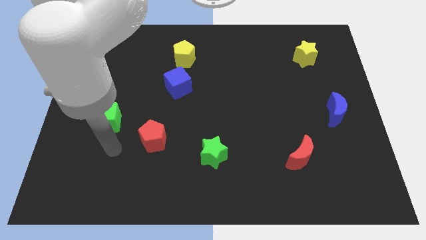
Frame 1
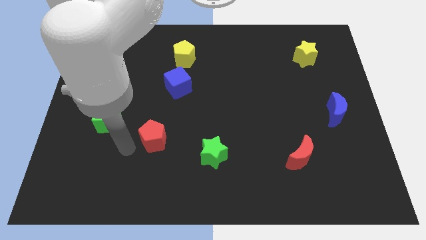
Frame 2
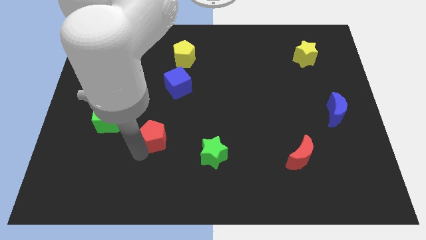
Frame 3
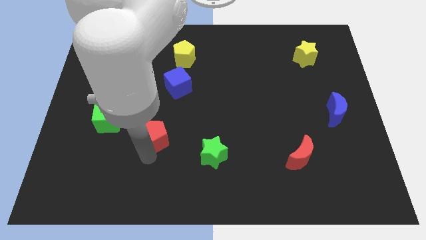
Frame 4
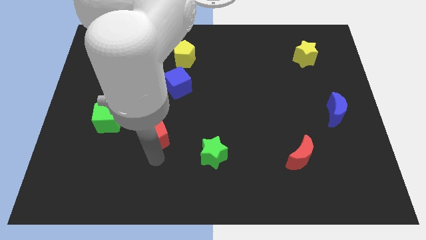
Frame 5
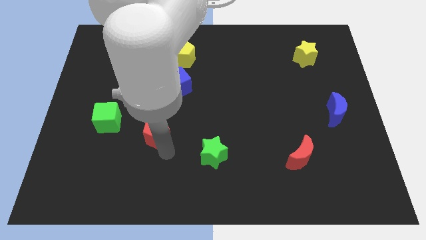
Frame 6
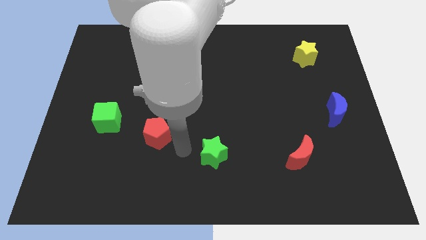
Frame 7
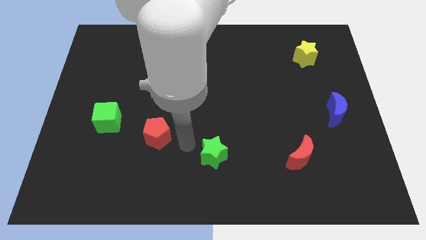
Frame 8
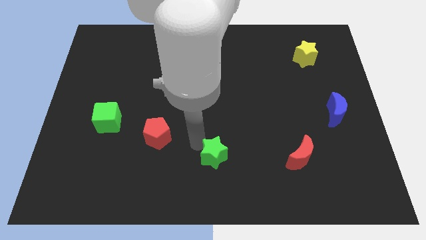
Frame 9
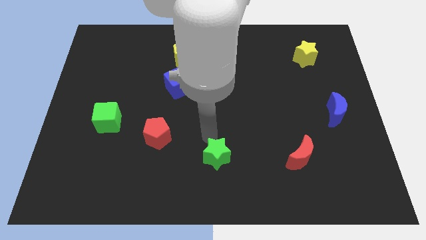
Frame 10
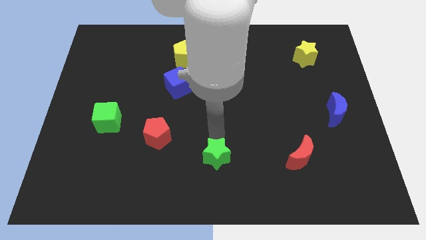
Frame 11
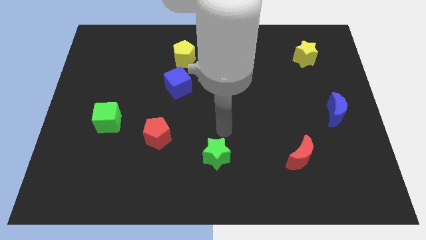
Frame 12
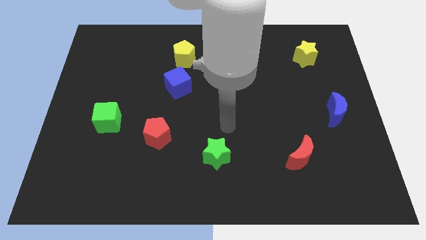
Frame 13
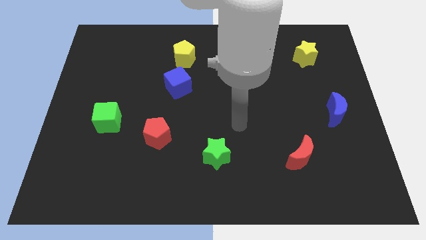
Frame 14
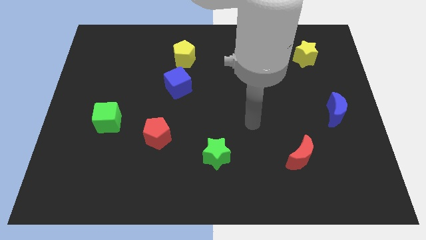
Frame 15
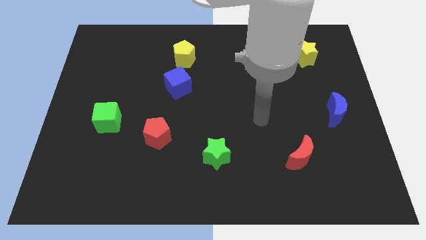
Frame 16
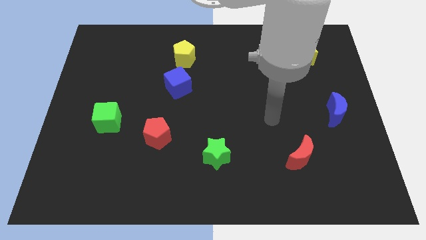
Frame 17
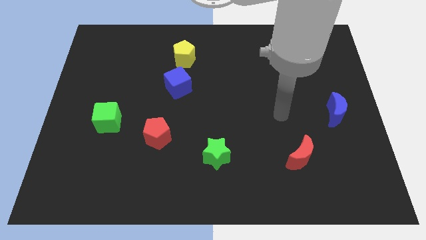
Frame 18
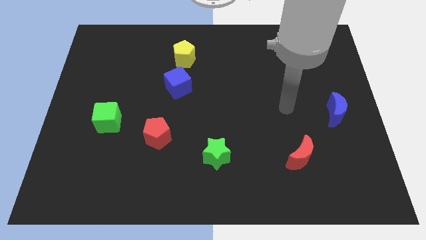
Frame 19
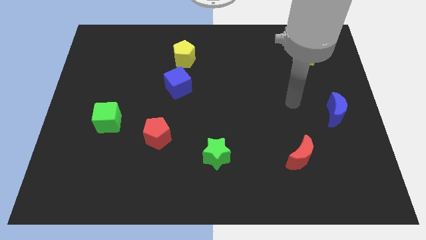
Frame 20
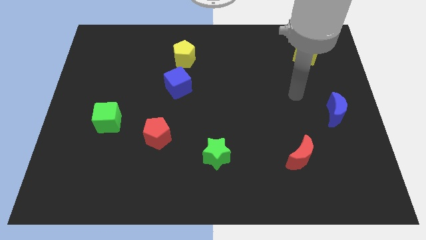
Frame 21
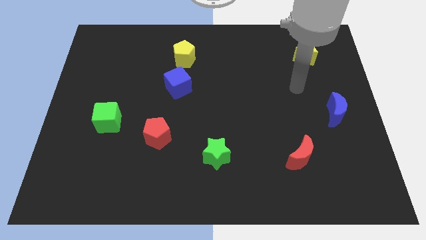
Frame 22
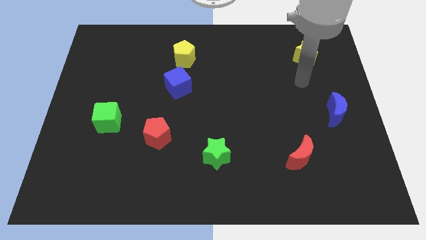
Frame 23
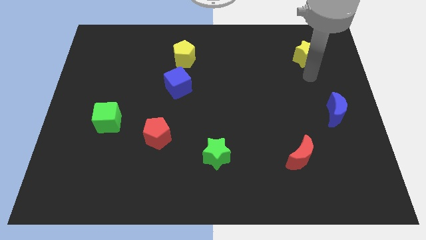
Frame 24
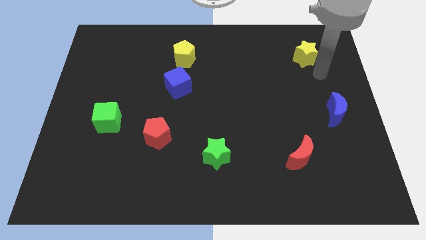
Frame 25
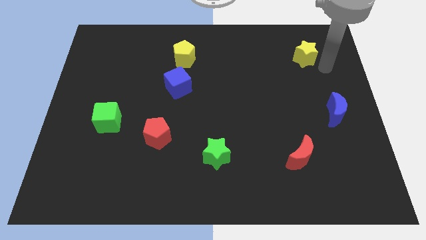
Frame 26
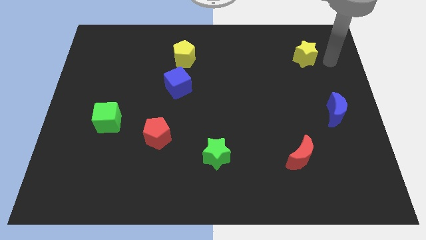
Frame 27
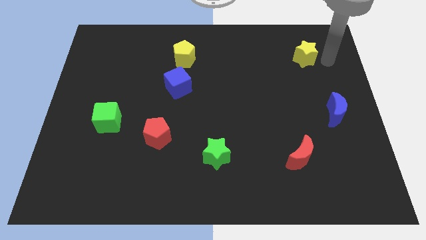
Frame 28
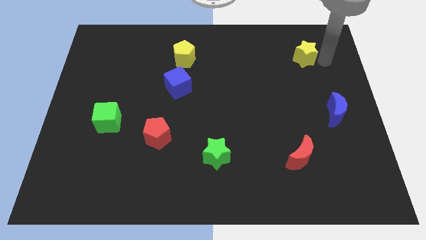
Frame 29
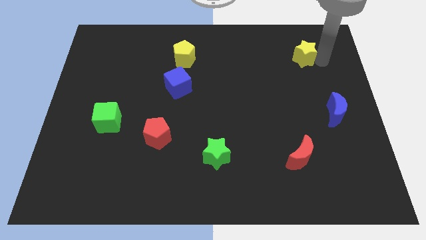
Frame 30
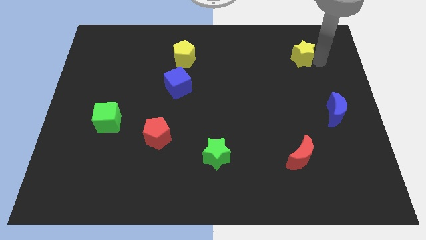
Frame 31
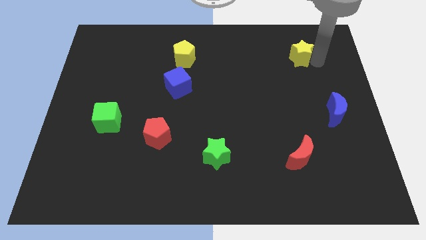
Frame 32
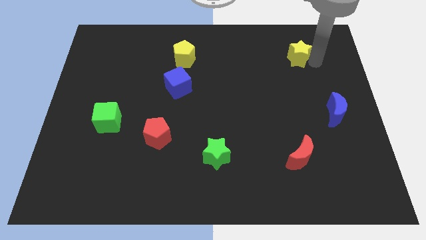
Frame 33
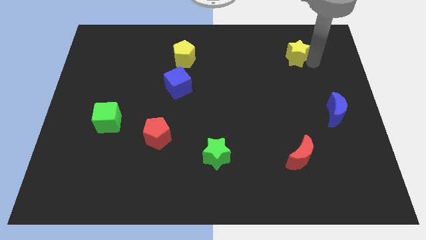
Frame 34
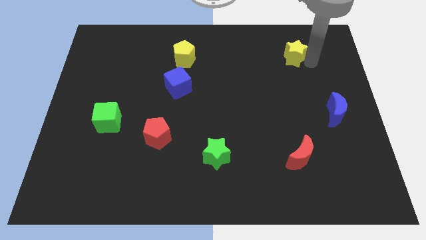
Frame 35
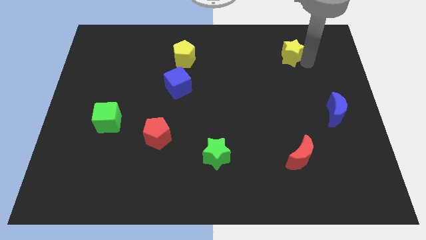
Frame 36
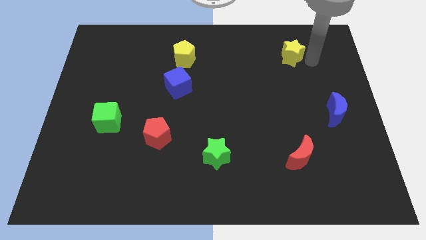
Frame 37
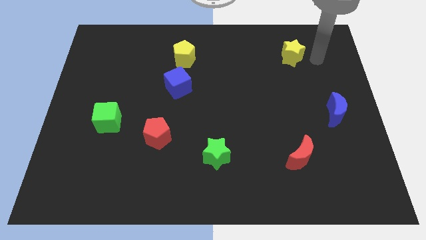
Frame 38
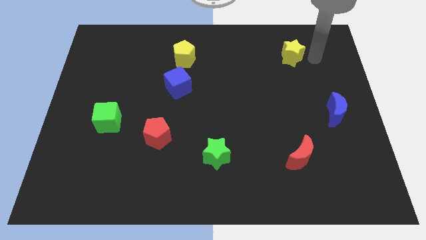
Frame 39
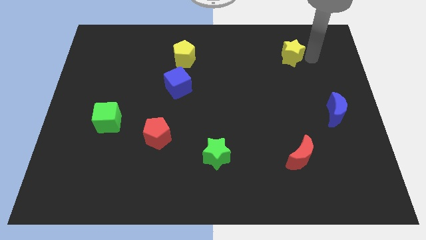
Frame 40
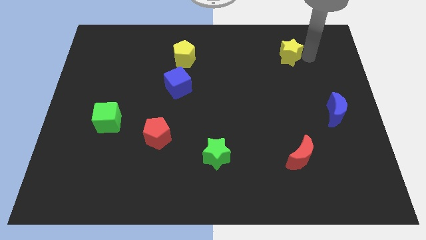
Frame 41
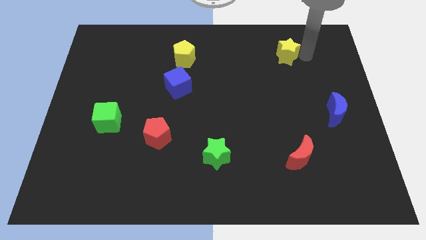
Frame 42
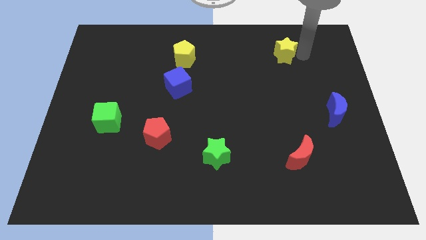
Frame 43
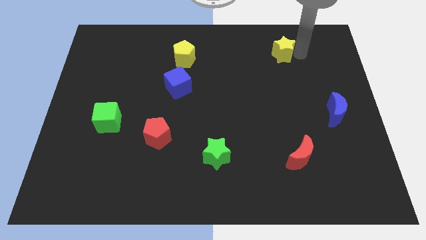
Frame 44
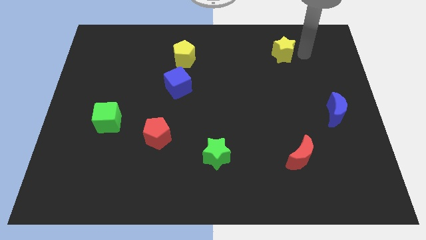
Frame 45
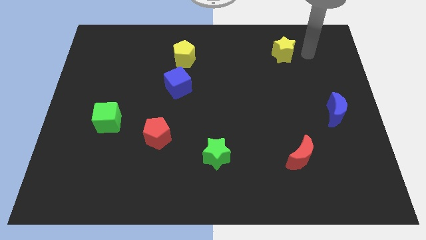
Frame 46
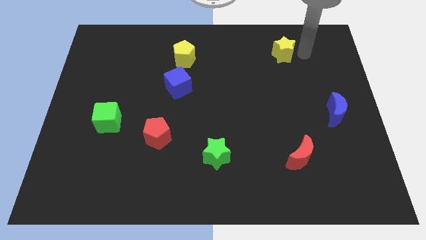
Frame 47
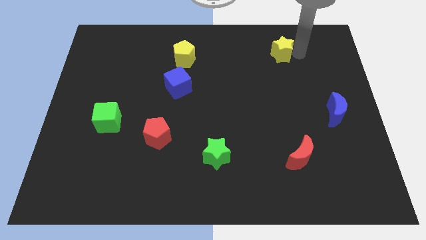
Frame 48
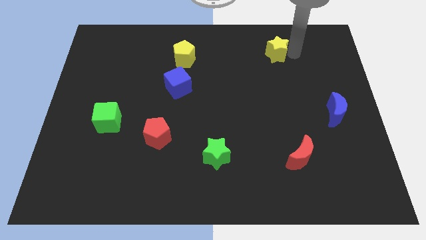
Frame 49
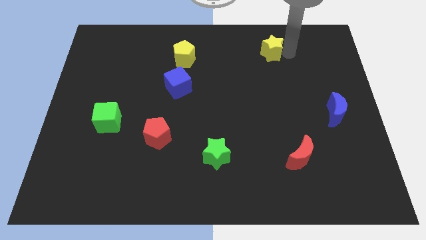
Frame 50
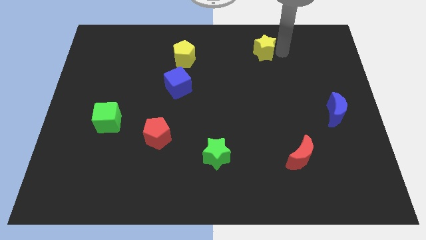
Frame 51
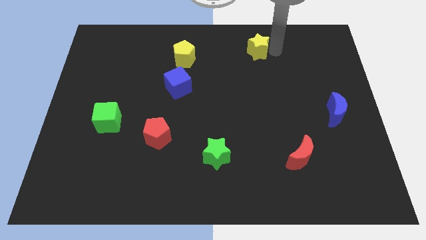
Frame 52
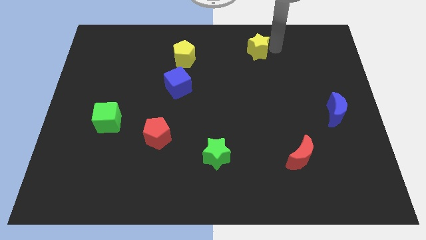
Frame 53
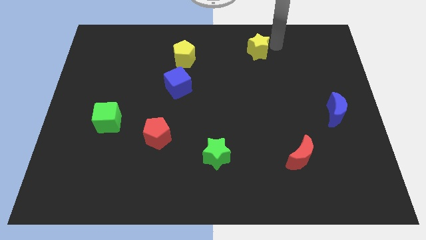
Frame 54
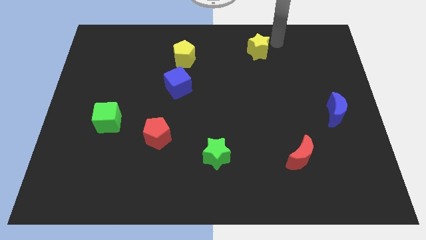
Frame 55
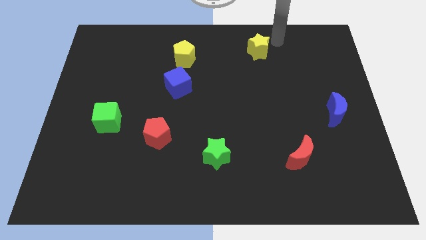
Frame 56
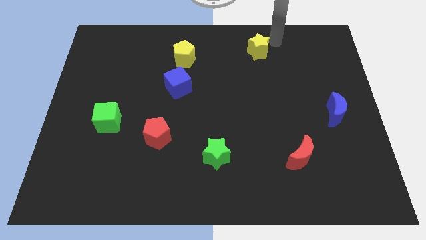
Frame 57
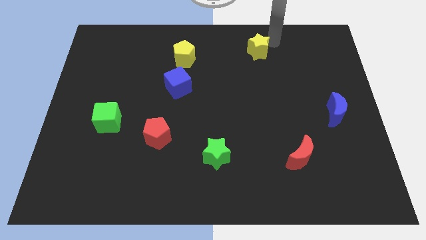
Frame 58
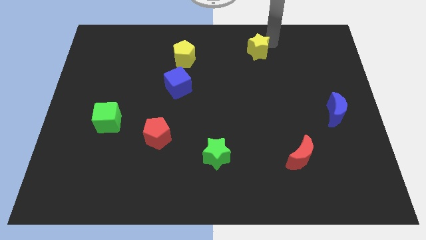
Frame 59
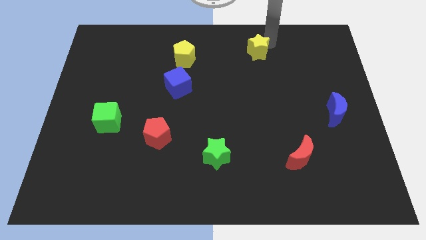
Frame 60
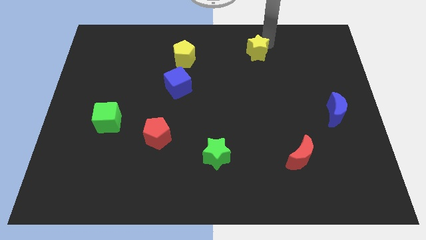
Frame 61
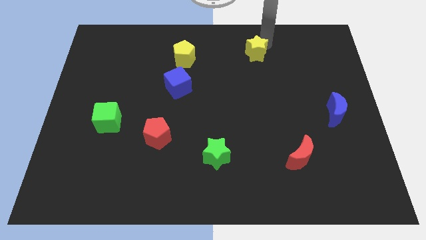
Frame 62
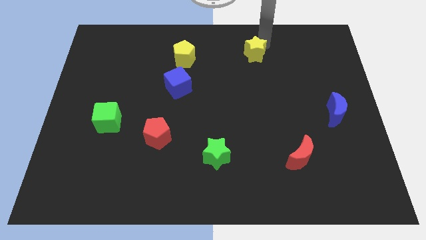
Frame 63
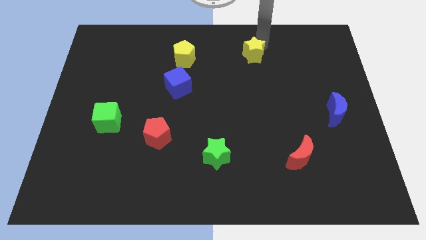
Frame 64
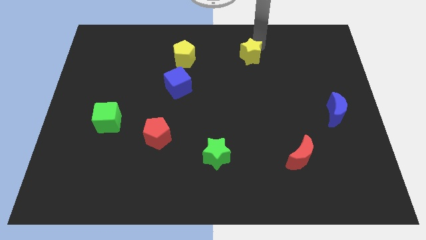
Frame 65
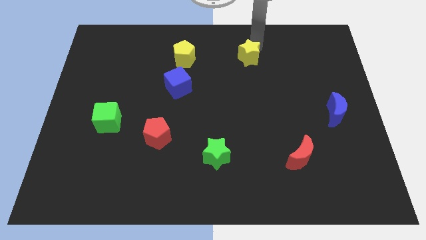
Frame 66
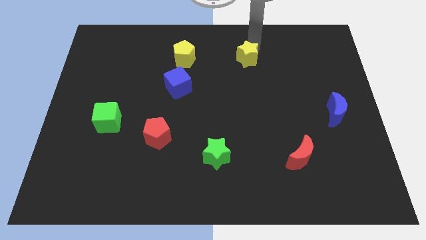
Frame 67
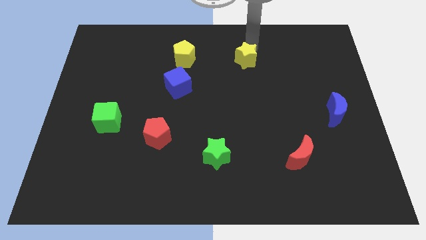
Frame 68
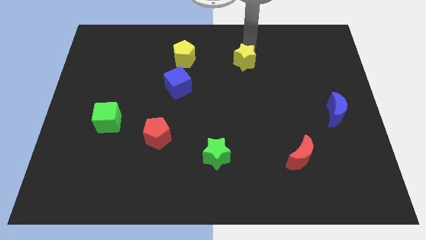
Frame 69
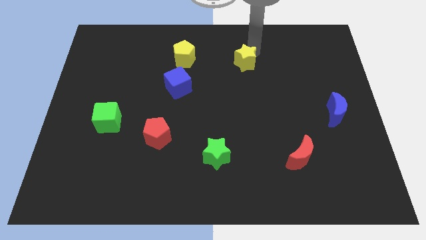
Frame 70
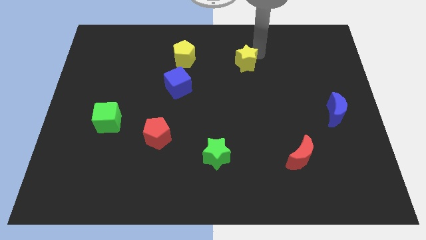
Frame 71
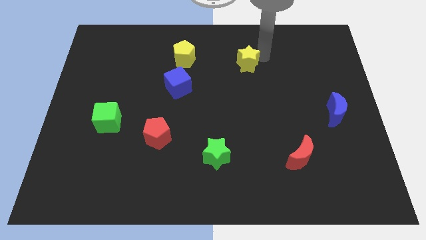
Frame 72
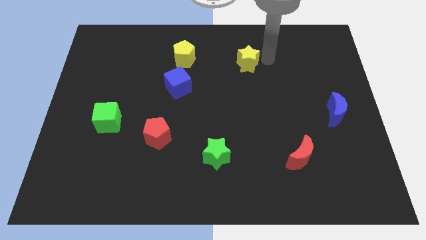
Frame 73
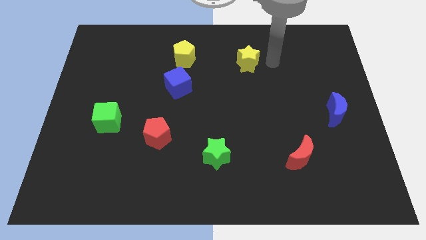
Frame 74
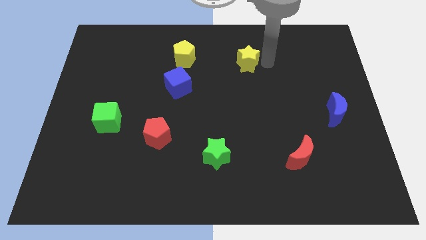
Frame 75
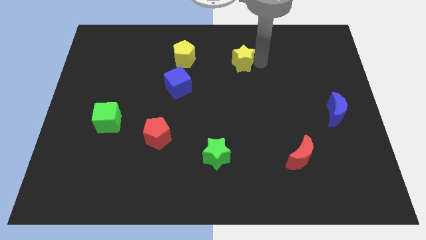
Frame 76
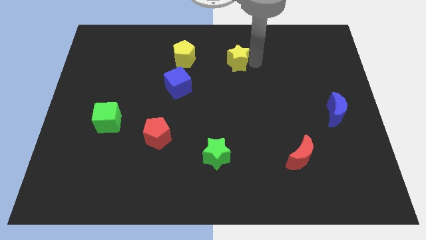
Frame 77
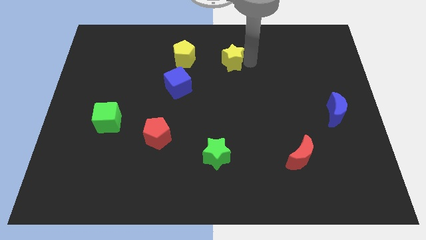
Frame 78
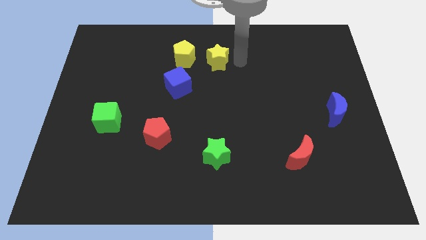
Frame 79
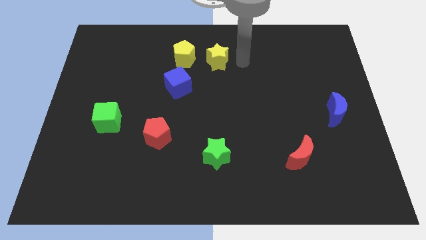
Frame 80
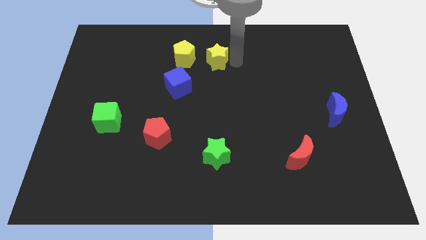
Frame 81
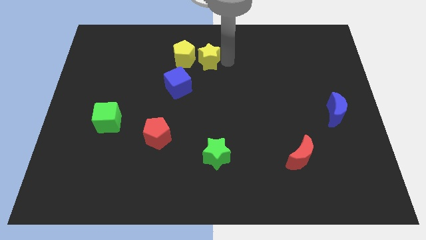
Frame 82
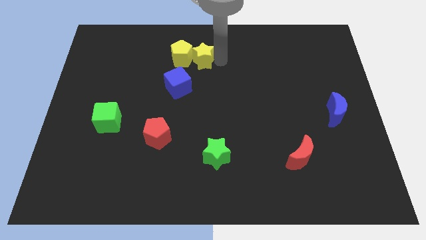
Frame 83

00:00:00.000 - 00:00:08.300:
move the yellow star to the yellow pentagon

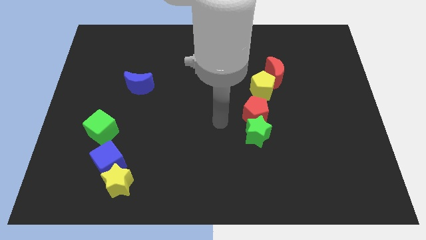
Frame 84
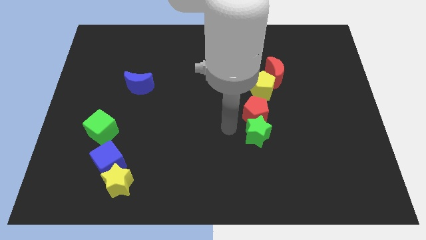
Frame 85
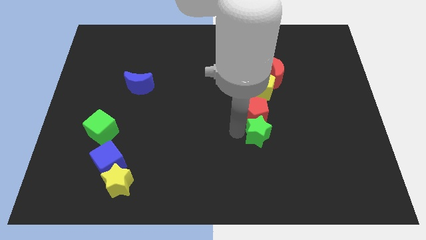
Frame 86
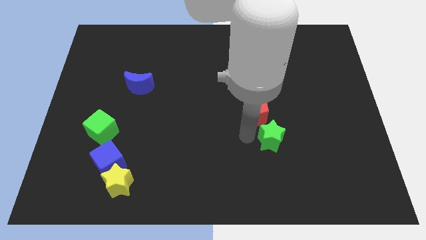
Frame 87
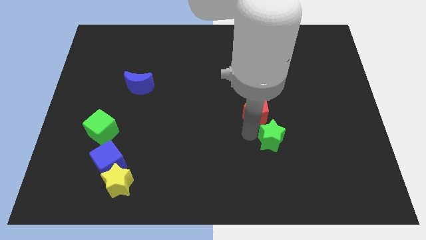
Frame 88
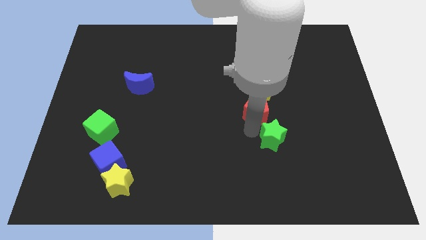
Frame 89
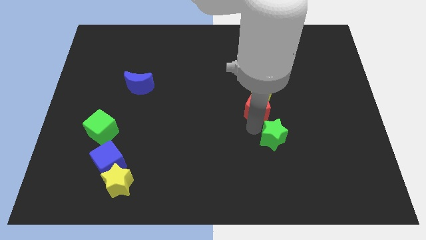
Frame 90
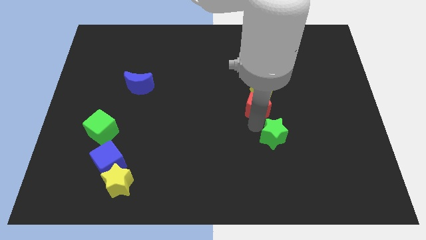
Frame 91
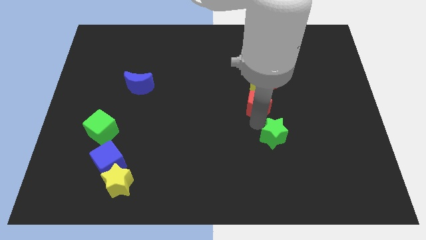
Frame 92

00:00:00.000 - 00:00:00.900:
move the red pentagon to the yellow pentagon
